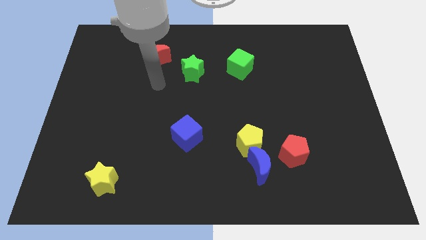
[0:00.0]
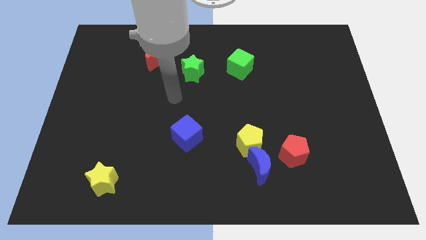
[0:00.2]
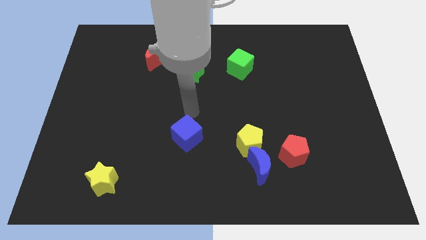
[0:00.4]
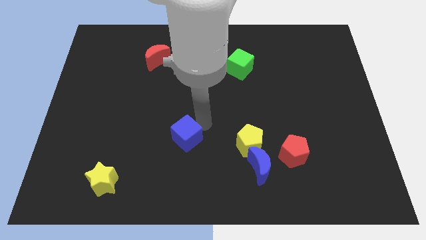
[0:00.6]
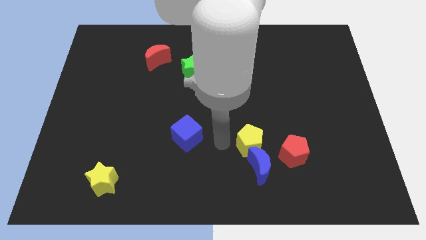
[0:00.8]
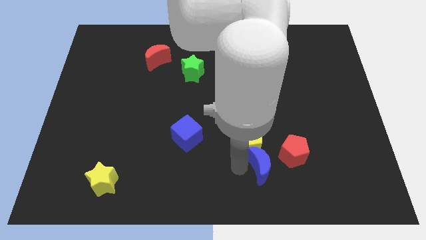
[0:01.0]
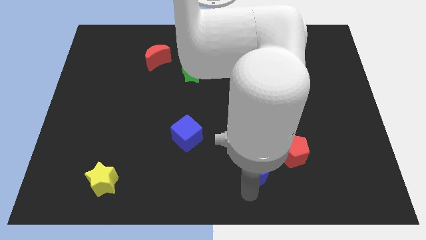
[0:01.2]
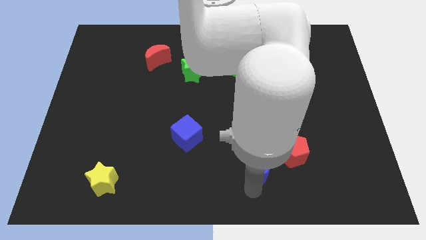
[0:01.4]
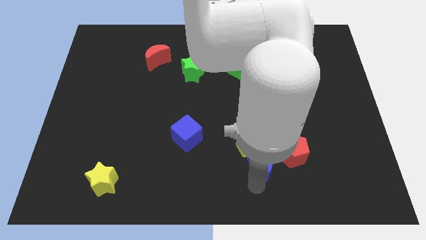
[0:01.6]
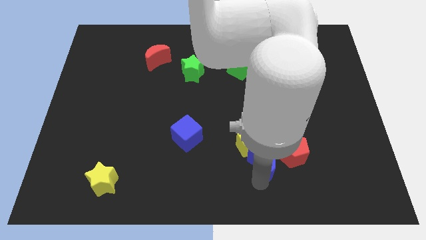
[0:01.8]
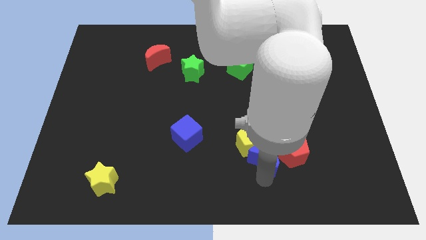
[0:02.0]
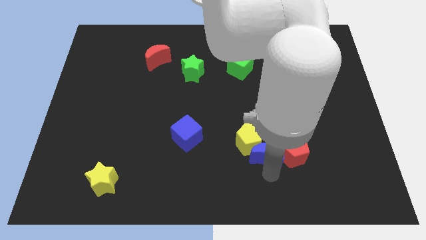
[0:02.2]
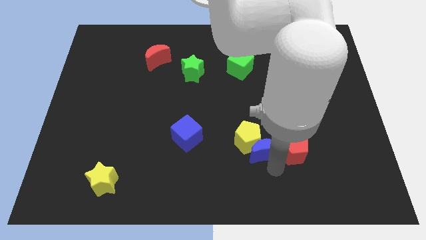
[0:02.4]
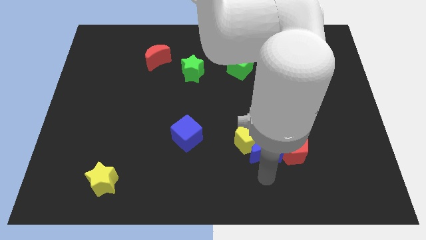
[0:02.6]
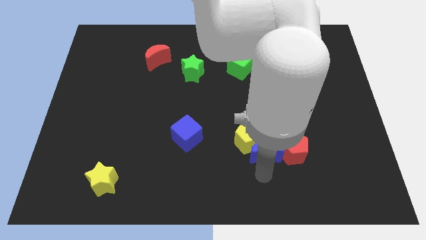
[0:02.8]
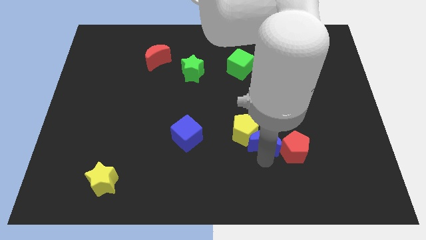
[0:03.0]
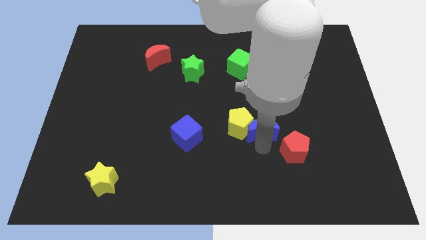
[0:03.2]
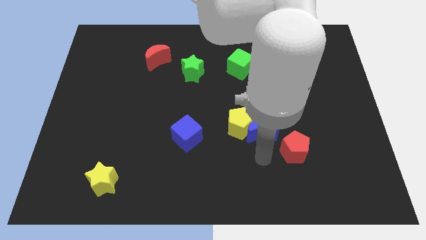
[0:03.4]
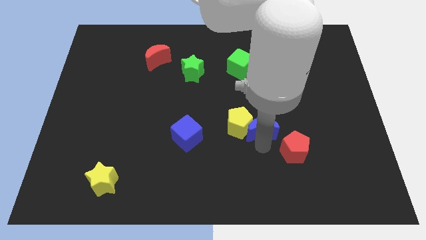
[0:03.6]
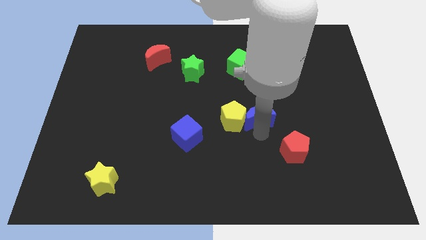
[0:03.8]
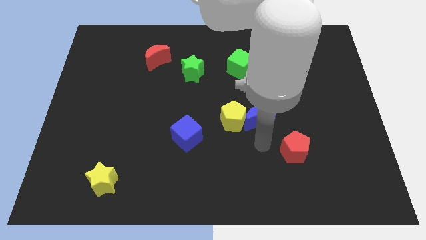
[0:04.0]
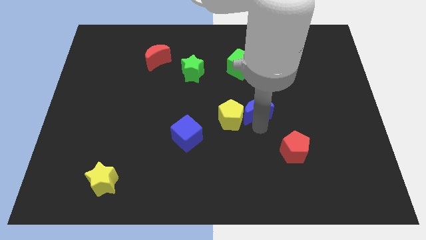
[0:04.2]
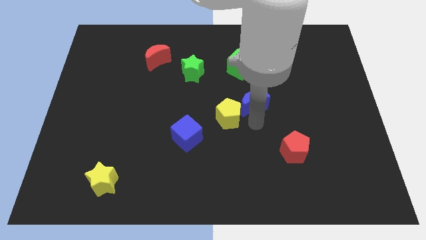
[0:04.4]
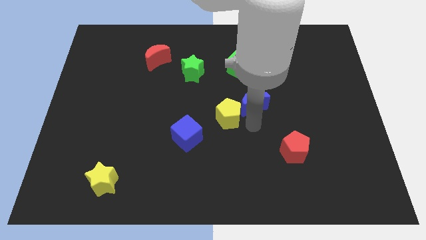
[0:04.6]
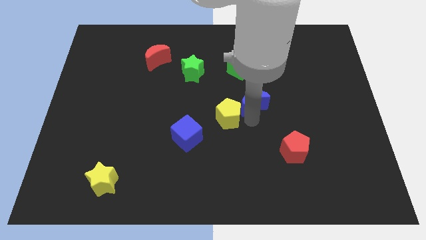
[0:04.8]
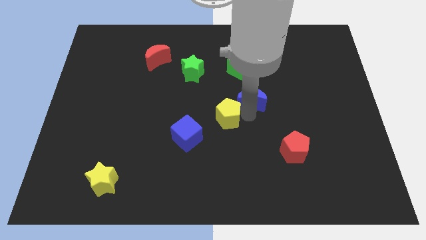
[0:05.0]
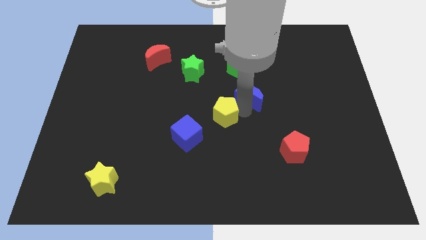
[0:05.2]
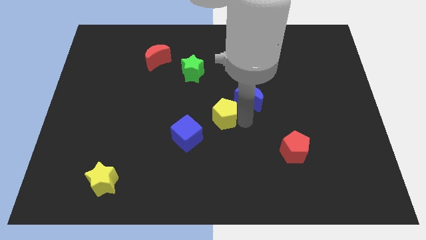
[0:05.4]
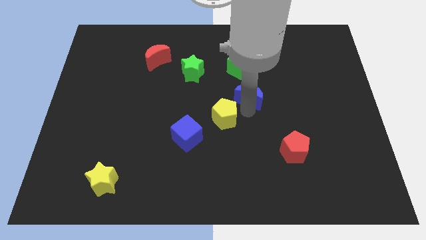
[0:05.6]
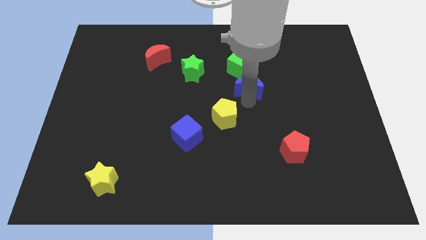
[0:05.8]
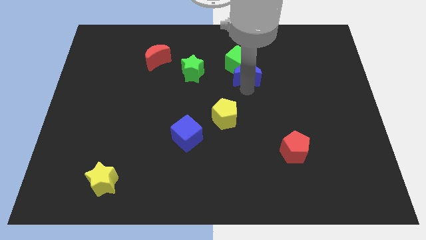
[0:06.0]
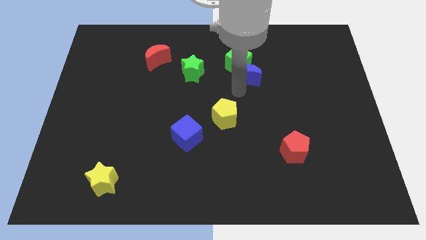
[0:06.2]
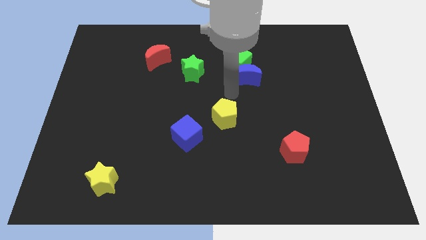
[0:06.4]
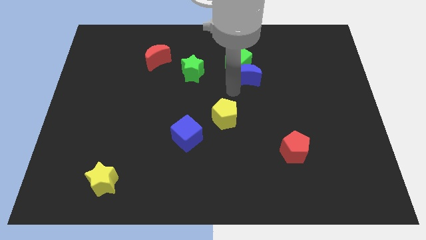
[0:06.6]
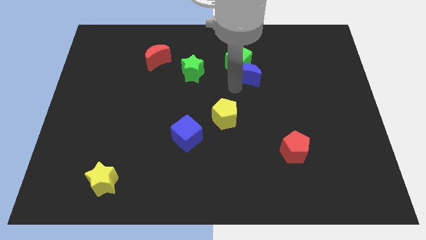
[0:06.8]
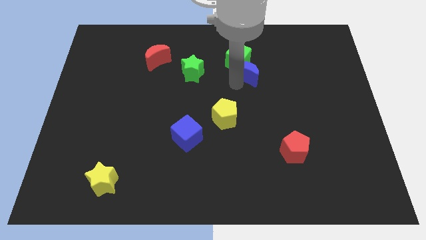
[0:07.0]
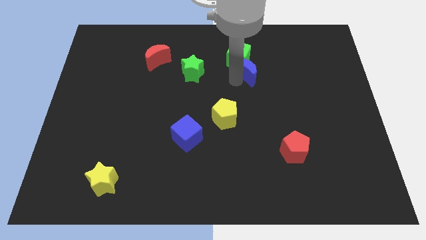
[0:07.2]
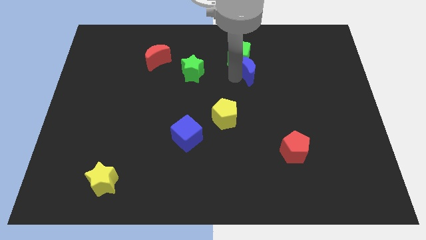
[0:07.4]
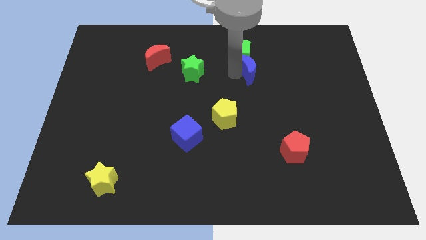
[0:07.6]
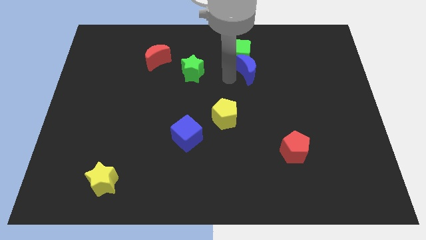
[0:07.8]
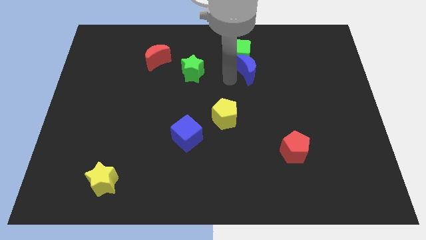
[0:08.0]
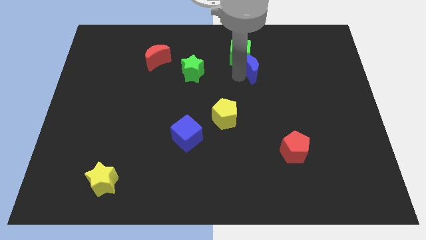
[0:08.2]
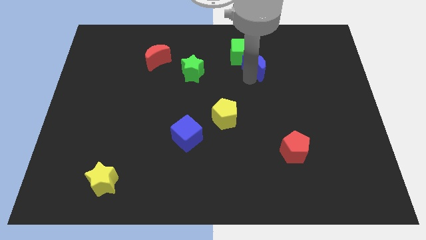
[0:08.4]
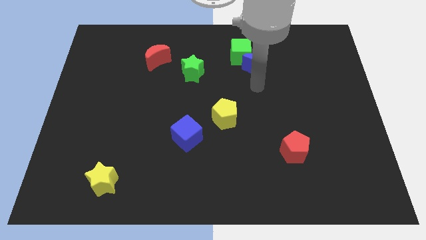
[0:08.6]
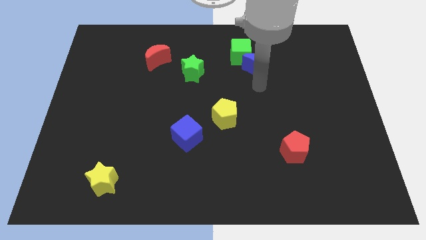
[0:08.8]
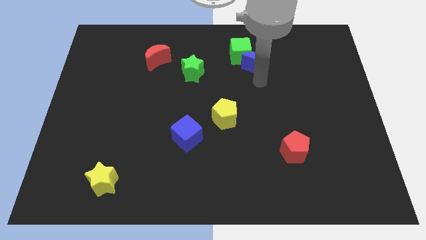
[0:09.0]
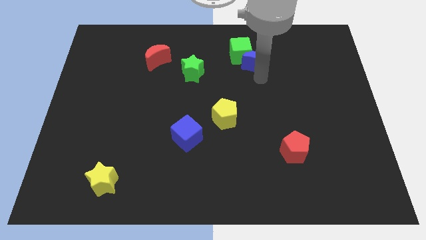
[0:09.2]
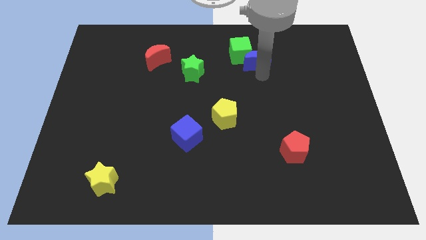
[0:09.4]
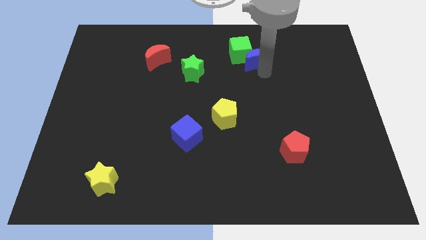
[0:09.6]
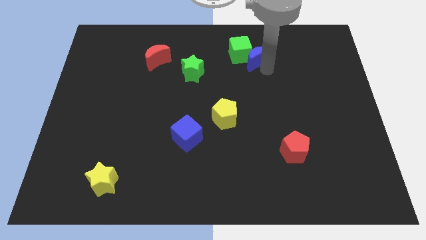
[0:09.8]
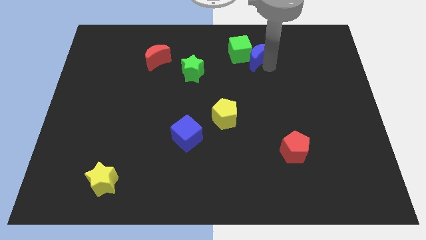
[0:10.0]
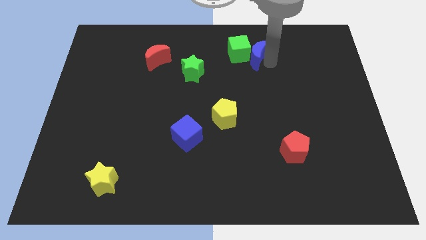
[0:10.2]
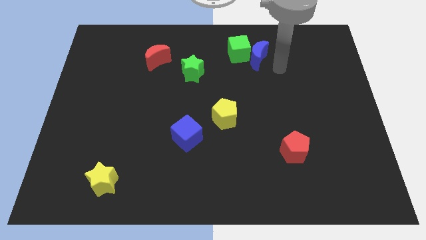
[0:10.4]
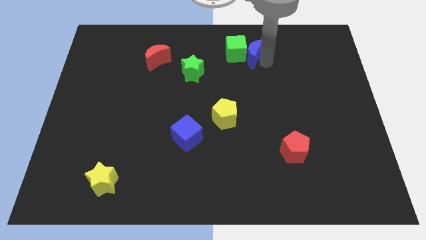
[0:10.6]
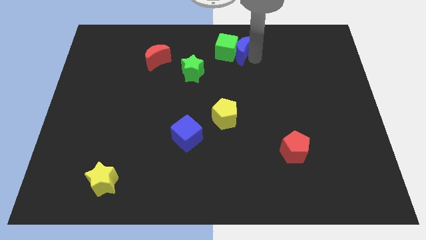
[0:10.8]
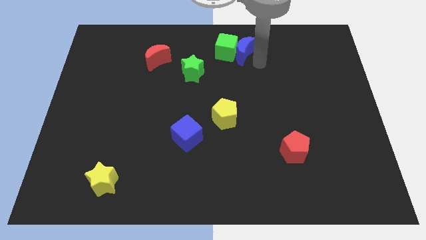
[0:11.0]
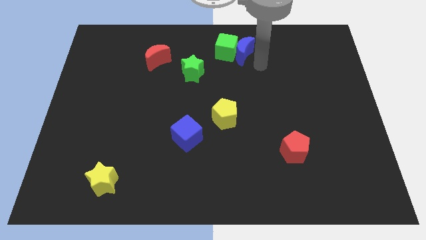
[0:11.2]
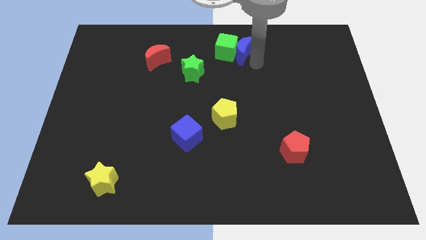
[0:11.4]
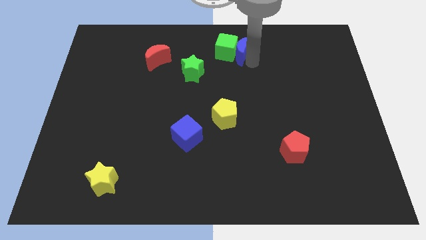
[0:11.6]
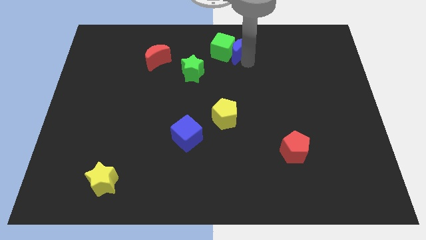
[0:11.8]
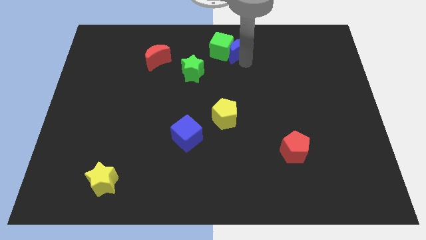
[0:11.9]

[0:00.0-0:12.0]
put the blue moon to the top
